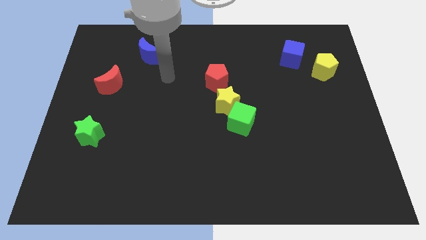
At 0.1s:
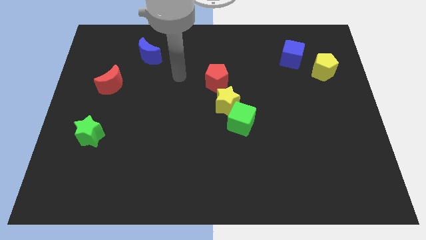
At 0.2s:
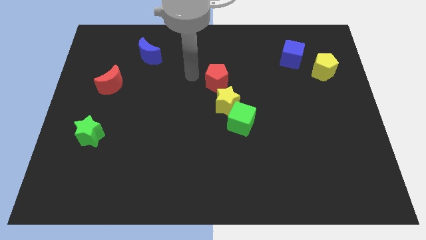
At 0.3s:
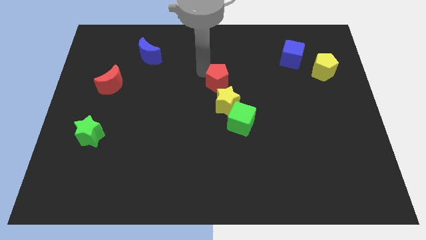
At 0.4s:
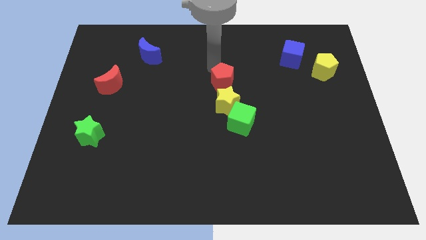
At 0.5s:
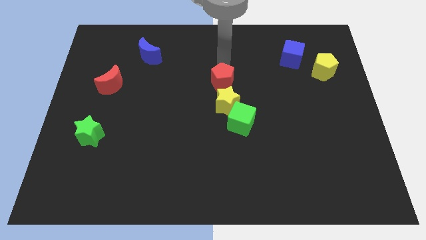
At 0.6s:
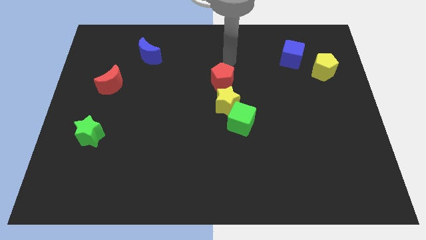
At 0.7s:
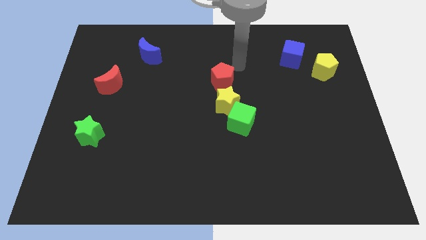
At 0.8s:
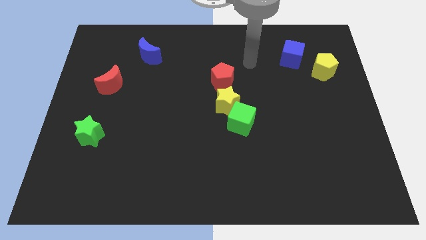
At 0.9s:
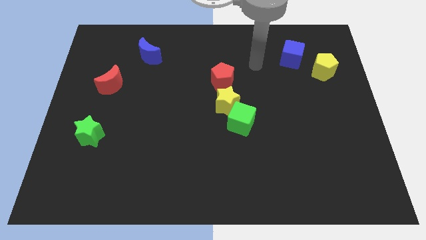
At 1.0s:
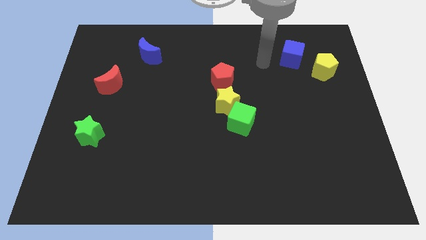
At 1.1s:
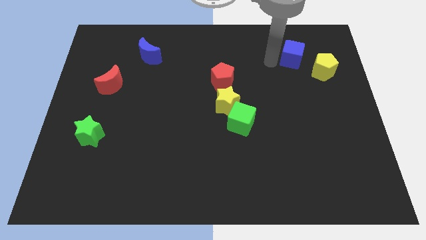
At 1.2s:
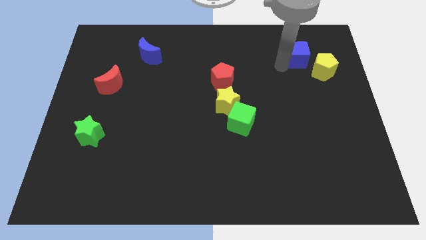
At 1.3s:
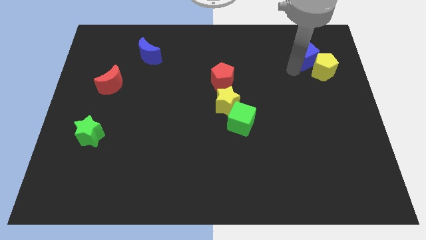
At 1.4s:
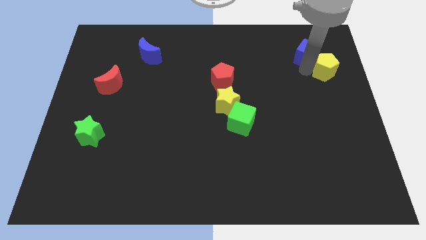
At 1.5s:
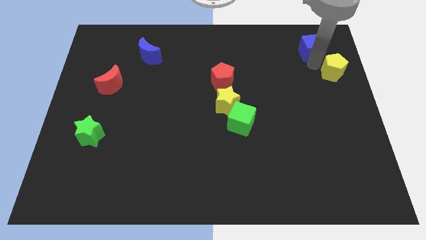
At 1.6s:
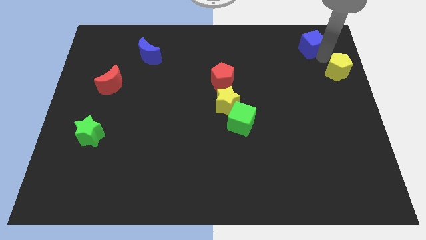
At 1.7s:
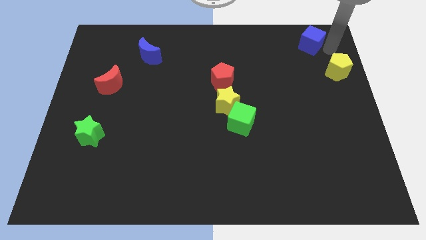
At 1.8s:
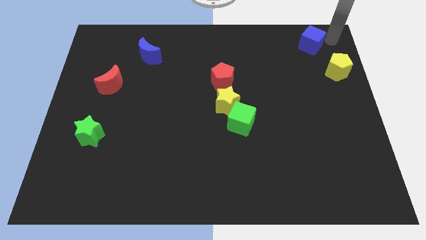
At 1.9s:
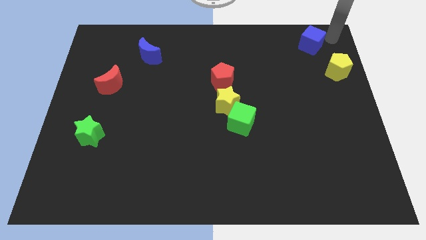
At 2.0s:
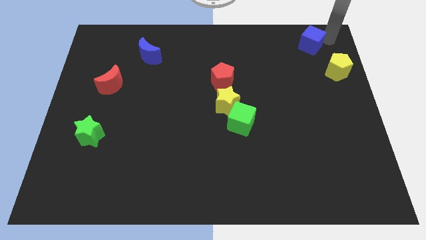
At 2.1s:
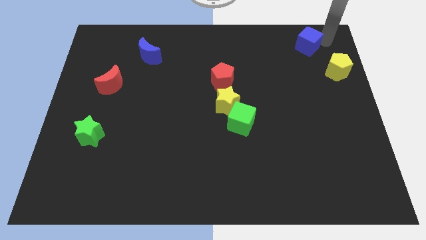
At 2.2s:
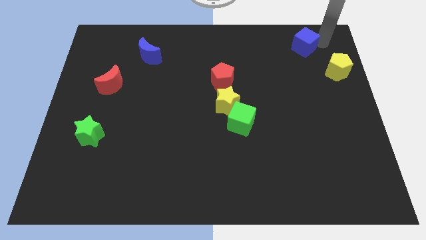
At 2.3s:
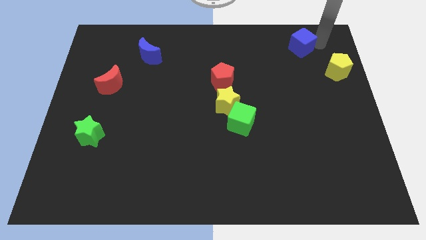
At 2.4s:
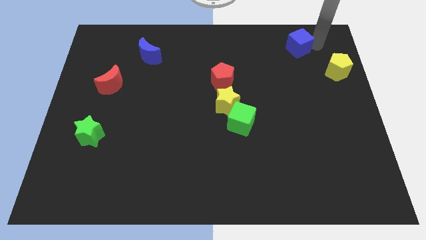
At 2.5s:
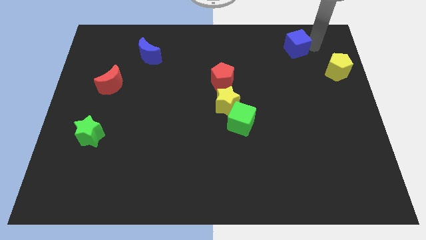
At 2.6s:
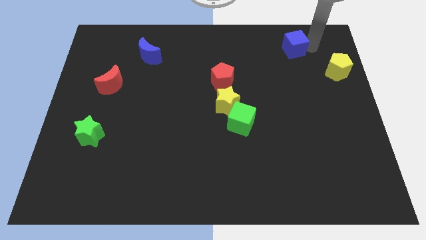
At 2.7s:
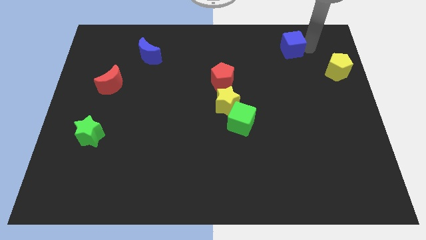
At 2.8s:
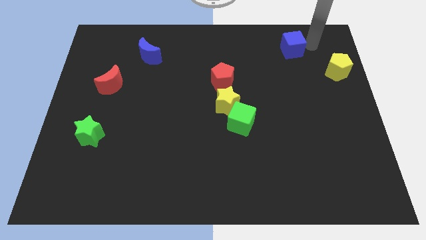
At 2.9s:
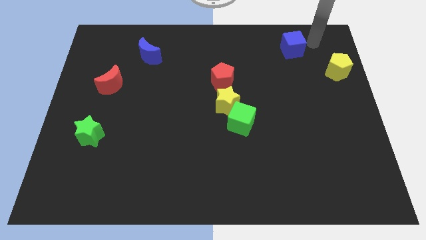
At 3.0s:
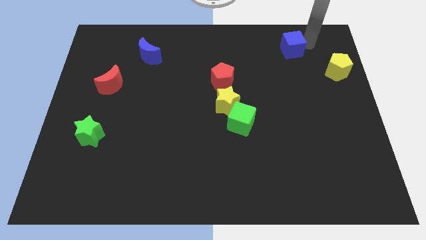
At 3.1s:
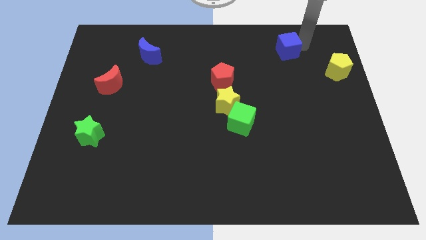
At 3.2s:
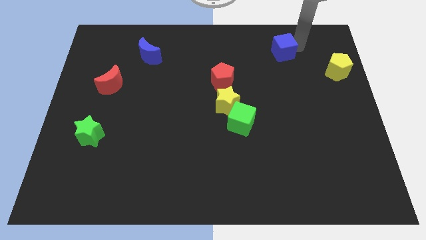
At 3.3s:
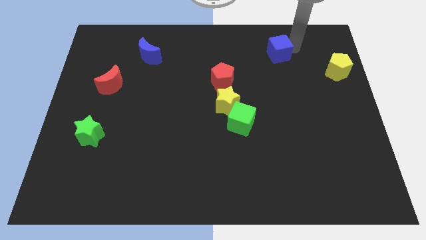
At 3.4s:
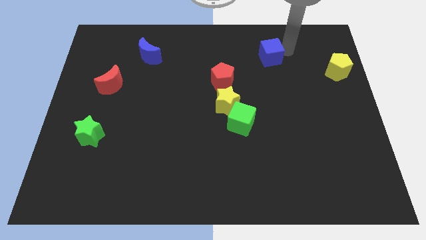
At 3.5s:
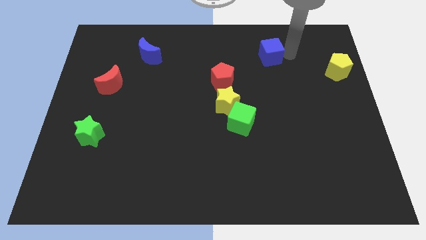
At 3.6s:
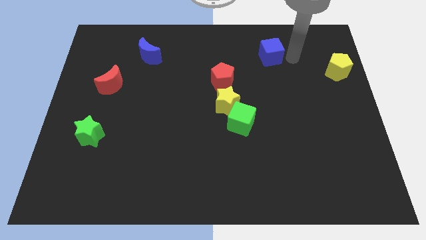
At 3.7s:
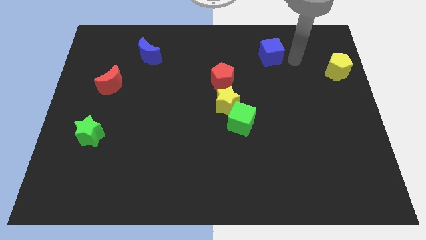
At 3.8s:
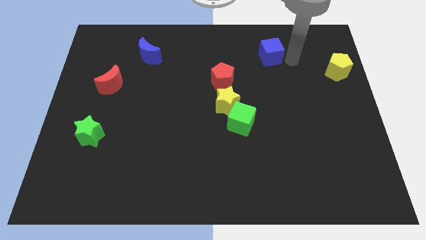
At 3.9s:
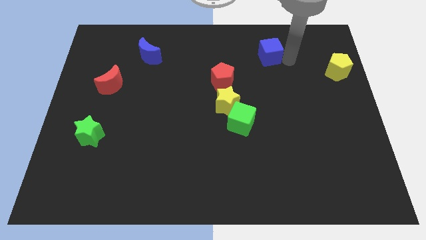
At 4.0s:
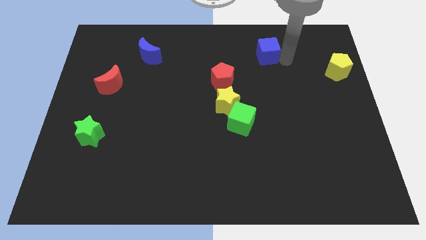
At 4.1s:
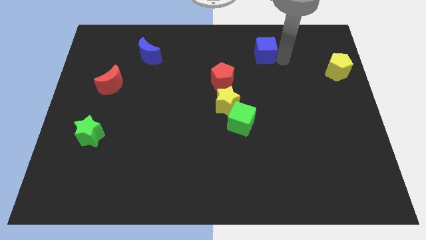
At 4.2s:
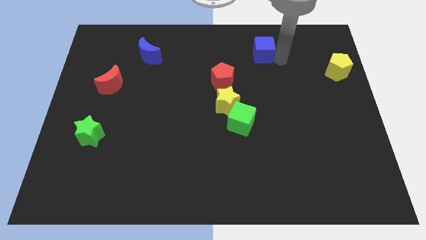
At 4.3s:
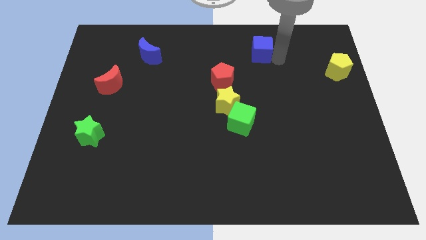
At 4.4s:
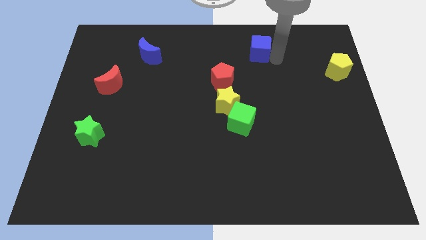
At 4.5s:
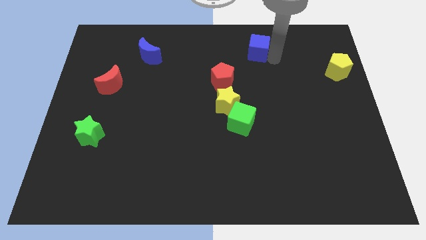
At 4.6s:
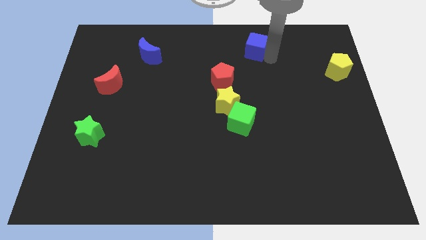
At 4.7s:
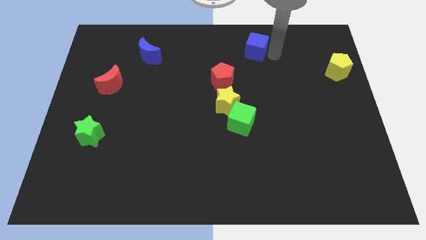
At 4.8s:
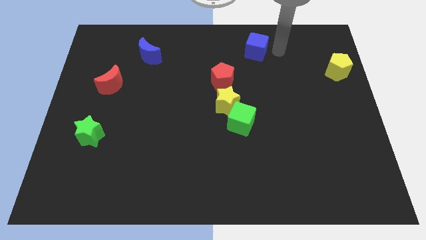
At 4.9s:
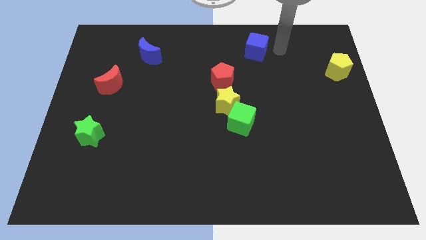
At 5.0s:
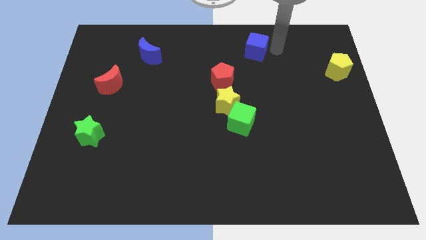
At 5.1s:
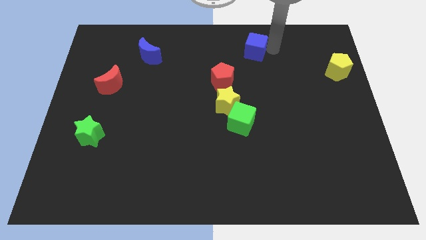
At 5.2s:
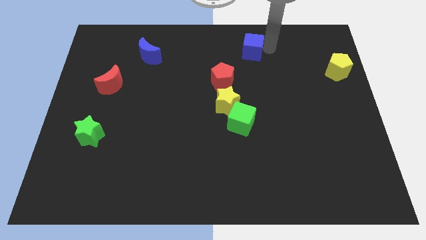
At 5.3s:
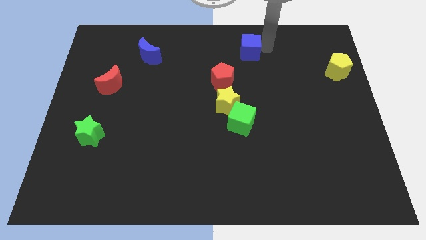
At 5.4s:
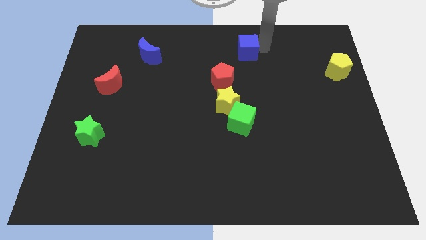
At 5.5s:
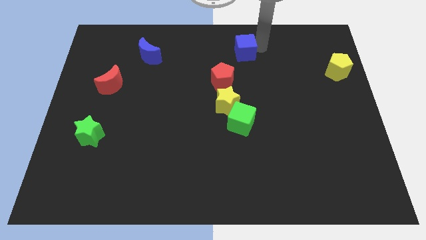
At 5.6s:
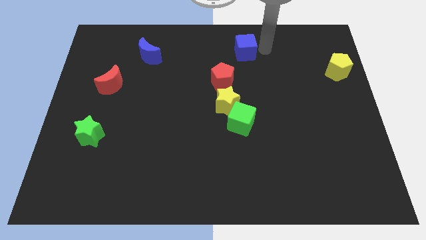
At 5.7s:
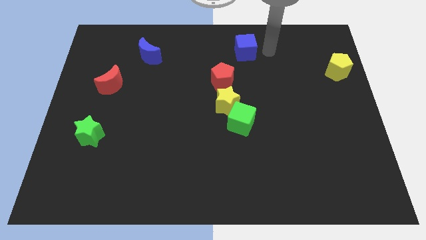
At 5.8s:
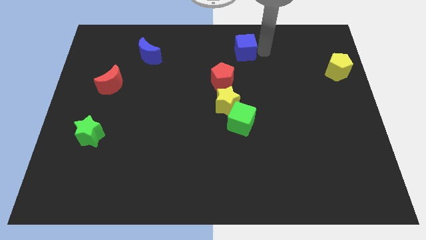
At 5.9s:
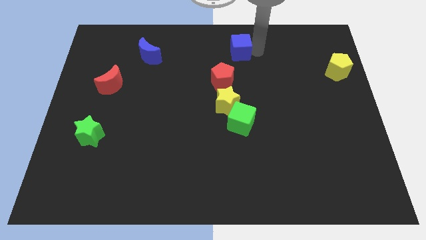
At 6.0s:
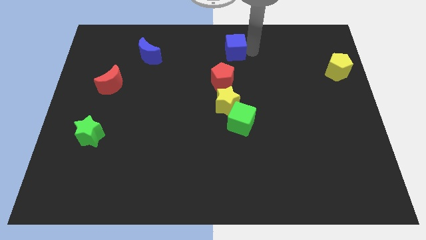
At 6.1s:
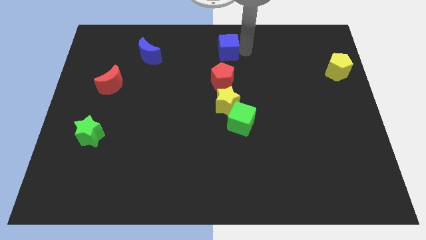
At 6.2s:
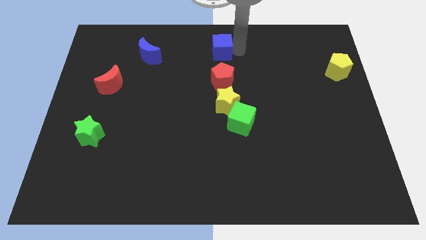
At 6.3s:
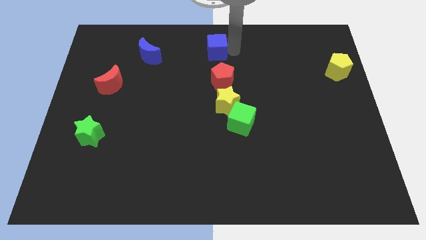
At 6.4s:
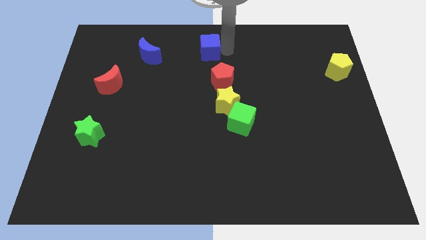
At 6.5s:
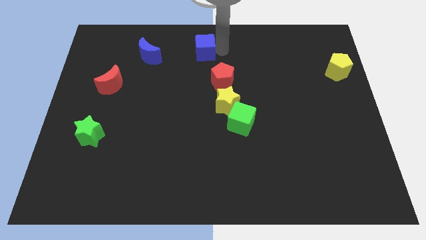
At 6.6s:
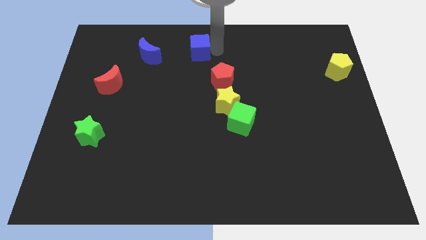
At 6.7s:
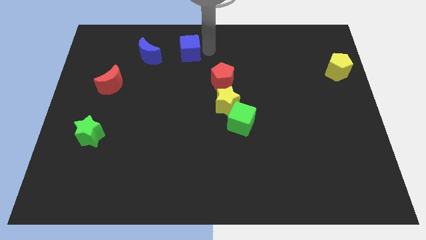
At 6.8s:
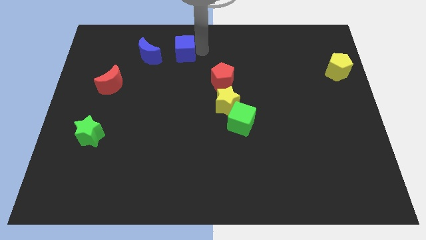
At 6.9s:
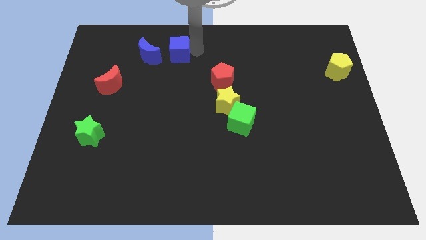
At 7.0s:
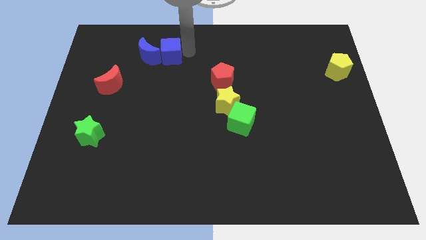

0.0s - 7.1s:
put the blue cube towards the blue moon

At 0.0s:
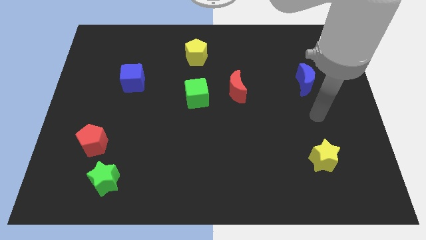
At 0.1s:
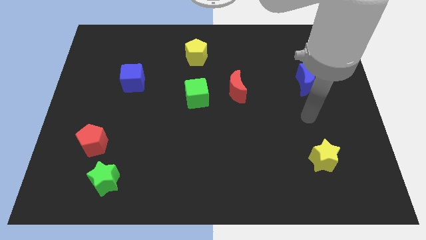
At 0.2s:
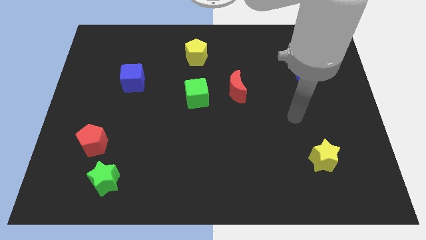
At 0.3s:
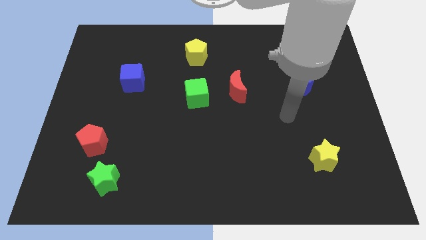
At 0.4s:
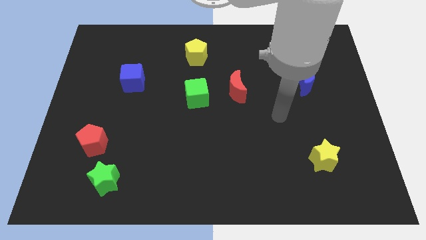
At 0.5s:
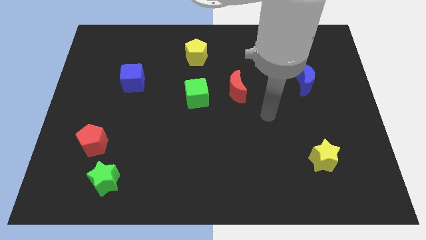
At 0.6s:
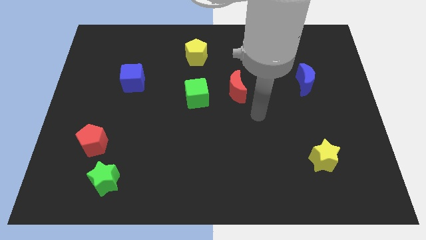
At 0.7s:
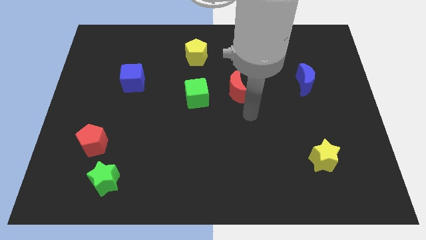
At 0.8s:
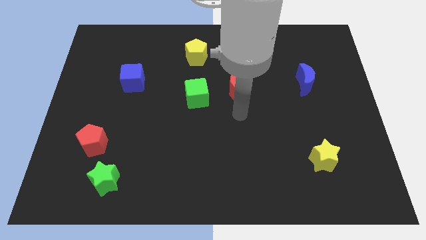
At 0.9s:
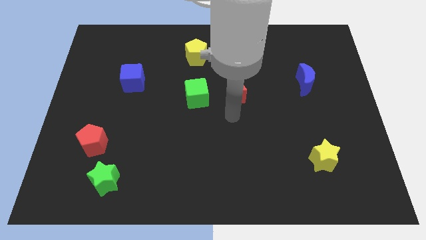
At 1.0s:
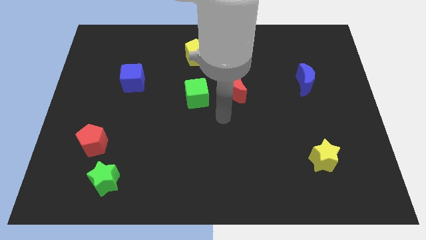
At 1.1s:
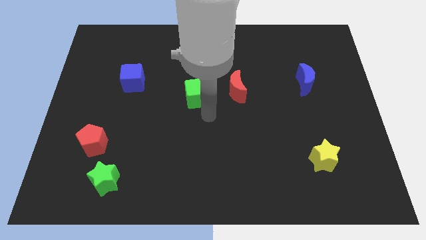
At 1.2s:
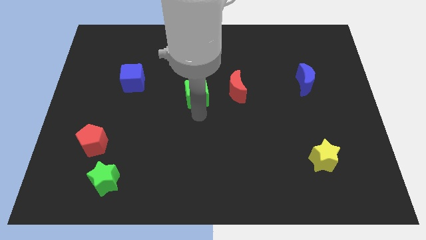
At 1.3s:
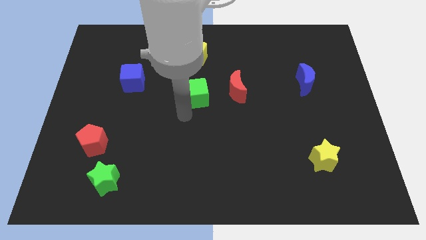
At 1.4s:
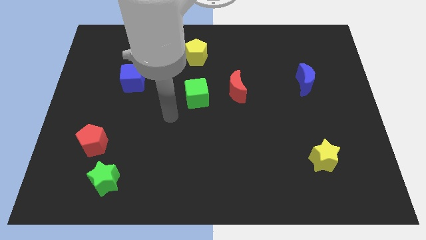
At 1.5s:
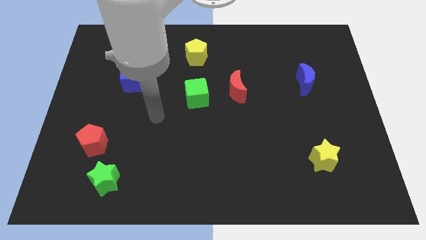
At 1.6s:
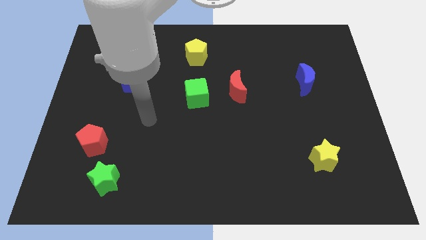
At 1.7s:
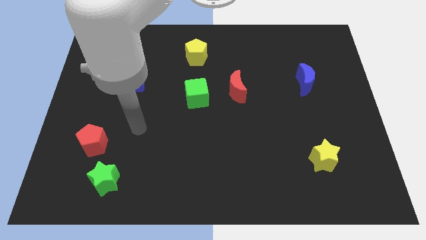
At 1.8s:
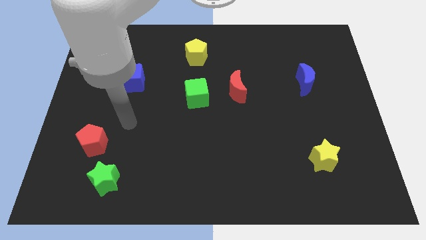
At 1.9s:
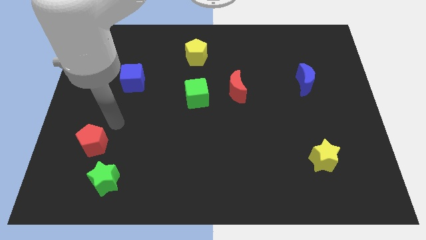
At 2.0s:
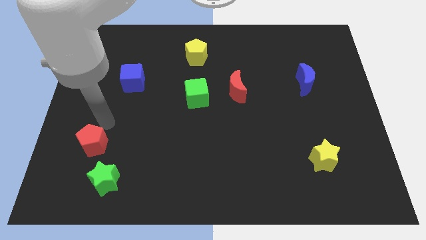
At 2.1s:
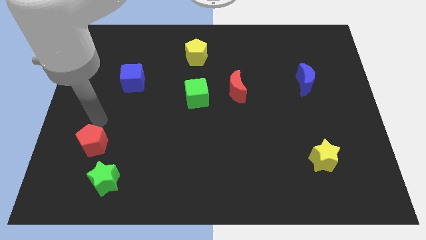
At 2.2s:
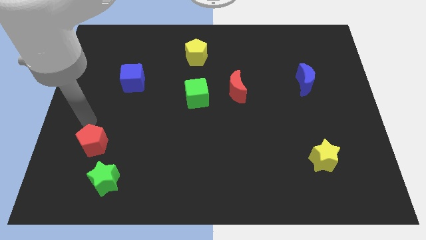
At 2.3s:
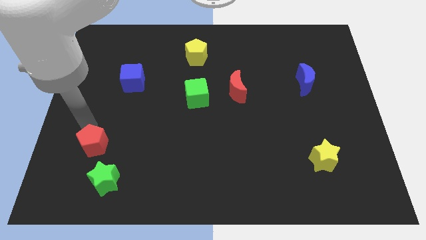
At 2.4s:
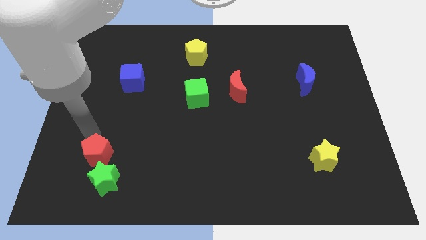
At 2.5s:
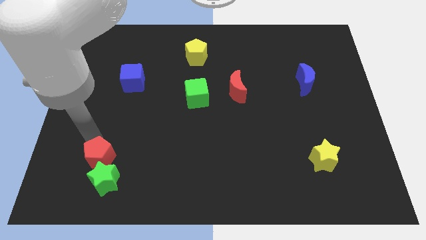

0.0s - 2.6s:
move the red pentagon next to the green star
